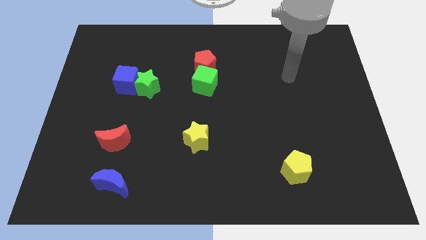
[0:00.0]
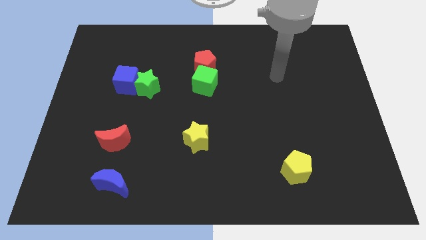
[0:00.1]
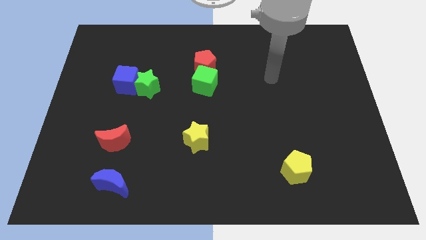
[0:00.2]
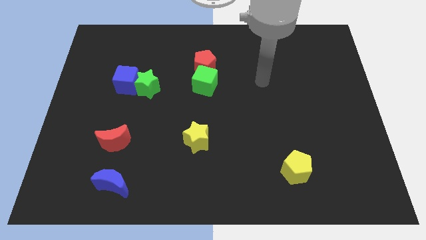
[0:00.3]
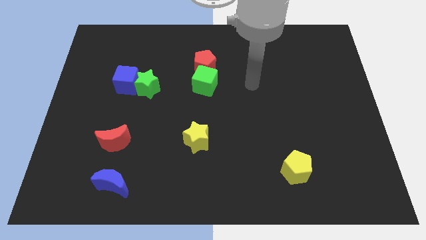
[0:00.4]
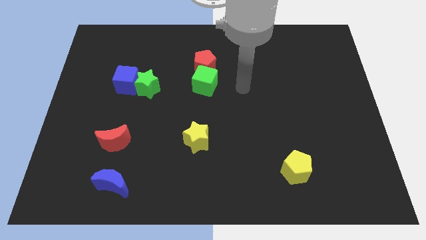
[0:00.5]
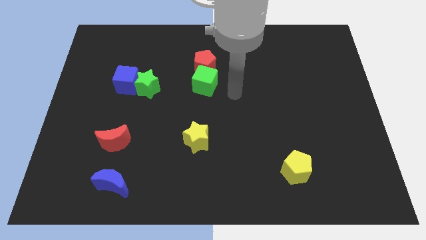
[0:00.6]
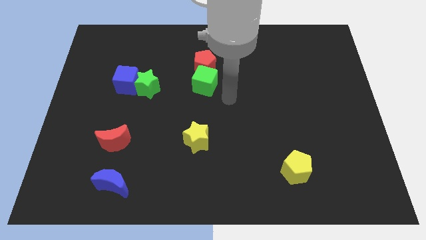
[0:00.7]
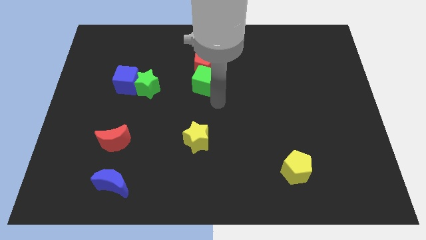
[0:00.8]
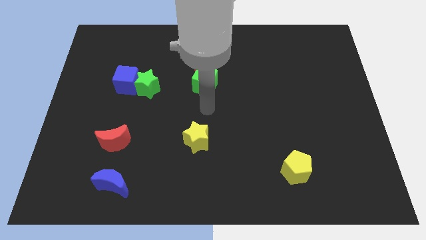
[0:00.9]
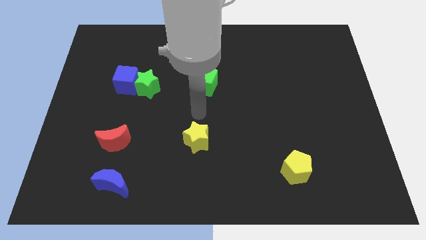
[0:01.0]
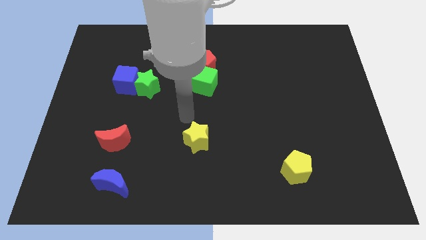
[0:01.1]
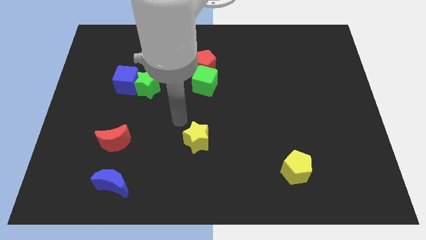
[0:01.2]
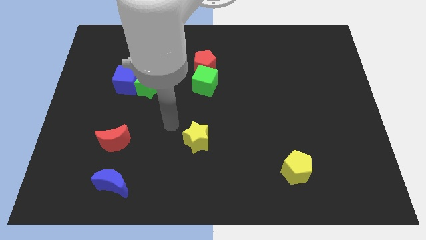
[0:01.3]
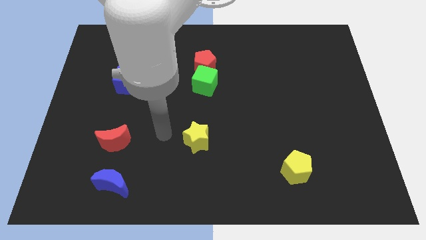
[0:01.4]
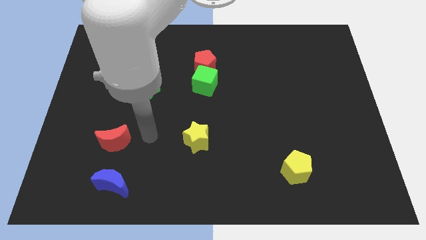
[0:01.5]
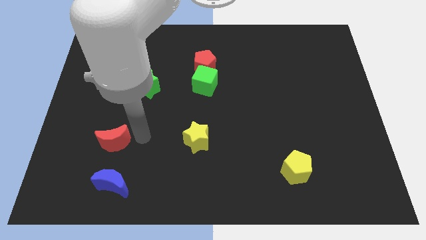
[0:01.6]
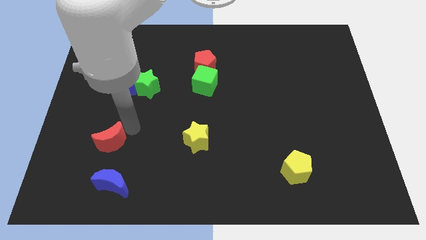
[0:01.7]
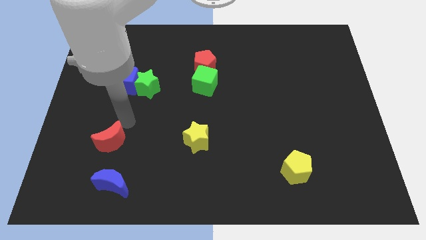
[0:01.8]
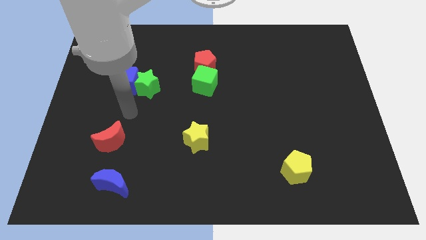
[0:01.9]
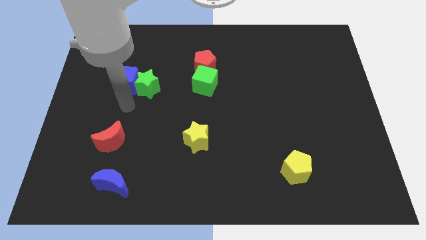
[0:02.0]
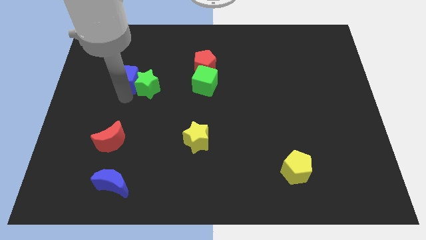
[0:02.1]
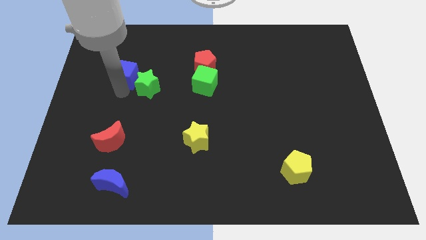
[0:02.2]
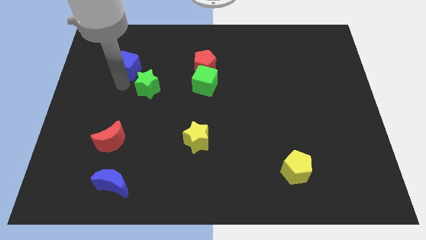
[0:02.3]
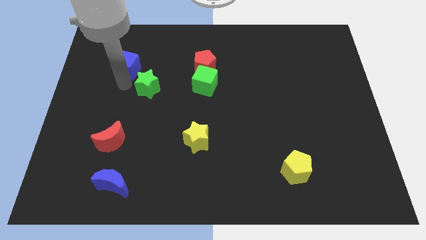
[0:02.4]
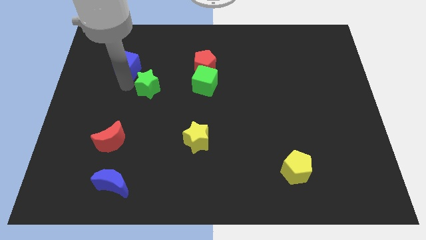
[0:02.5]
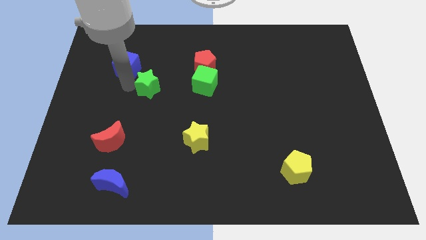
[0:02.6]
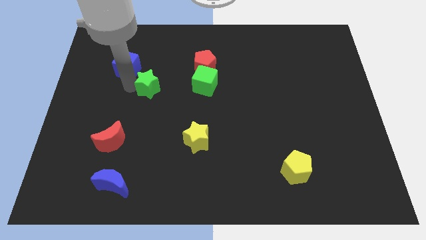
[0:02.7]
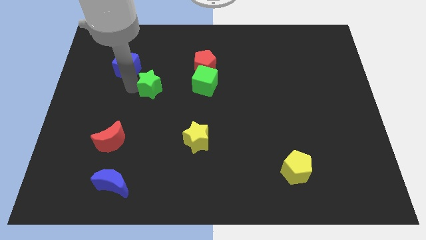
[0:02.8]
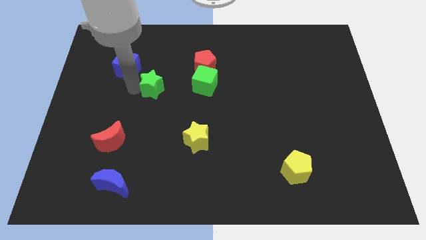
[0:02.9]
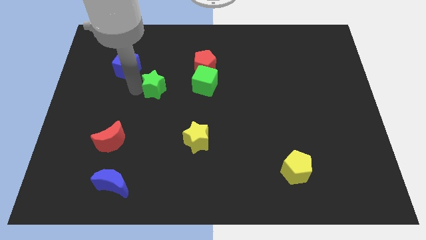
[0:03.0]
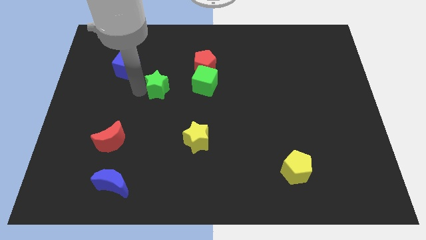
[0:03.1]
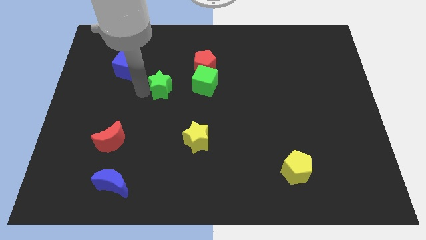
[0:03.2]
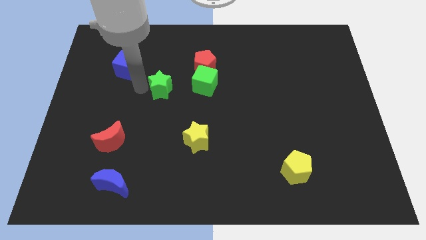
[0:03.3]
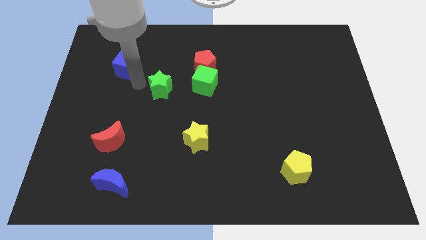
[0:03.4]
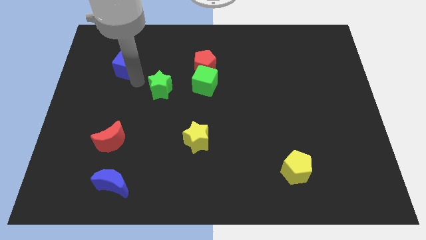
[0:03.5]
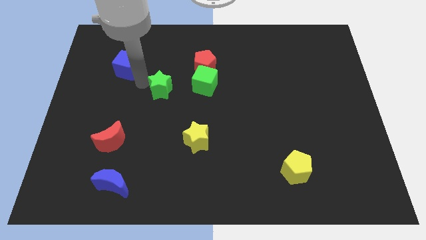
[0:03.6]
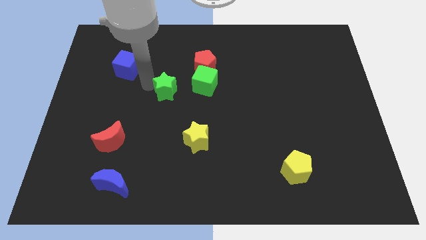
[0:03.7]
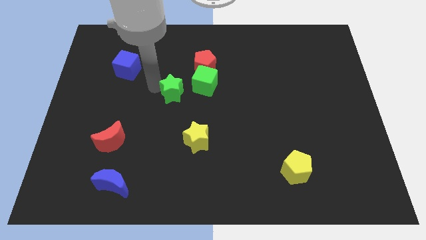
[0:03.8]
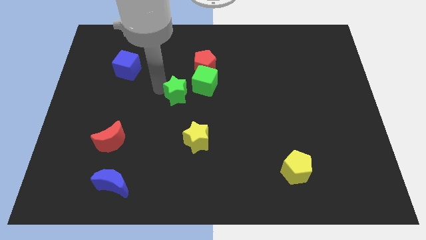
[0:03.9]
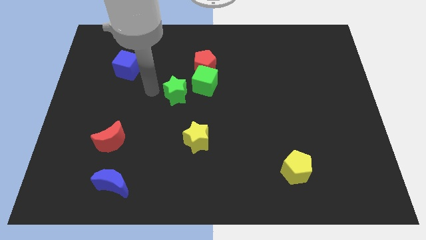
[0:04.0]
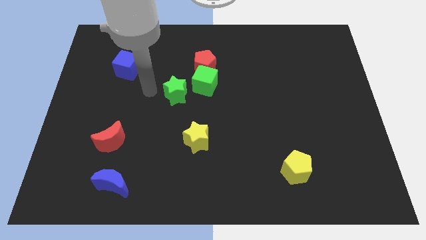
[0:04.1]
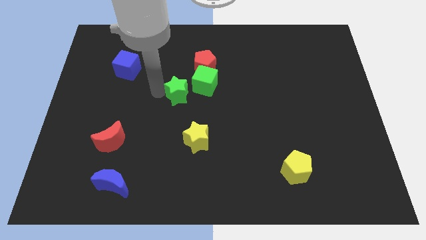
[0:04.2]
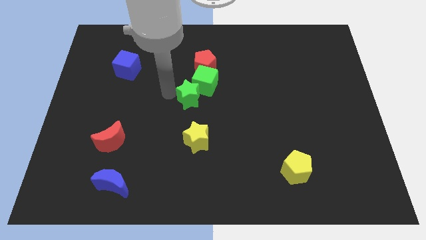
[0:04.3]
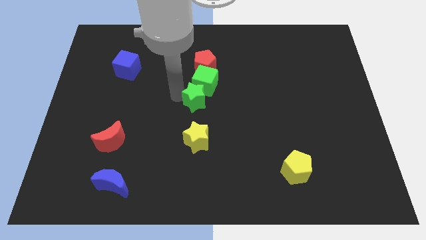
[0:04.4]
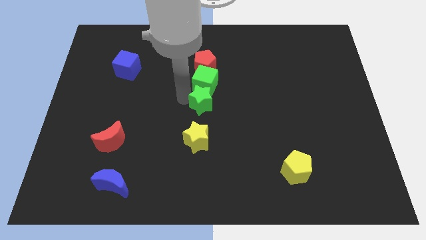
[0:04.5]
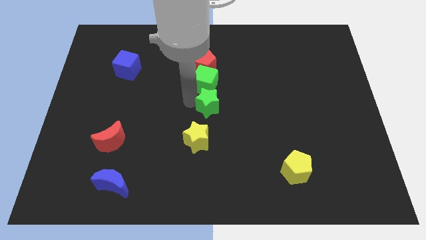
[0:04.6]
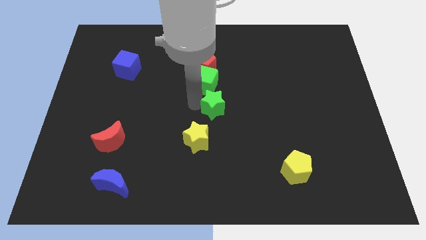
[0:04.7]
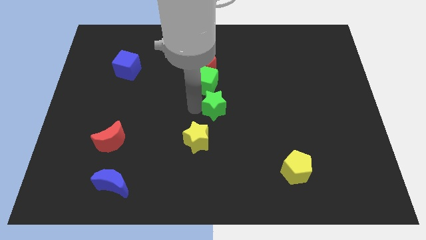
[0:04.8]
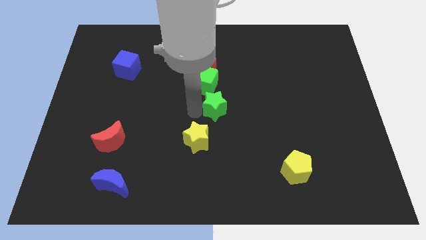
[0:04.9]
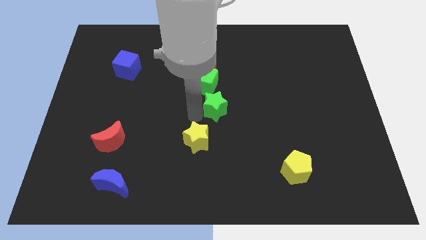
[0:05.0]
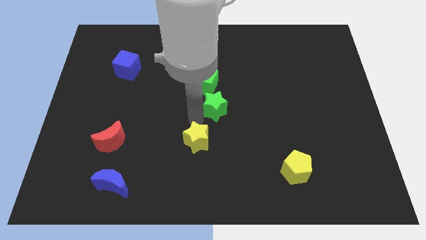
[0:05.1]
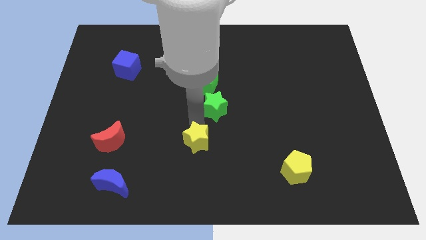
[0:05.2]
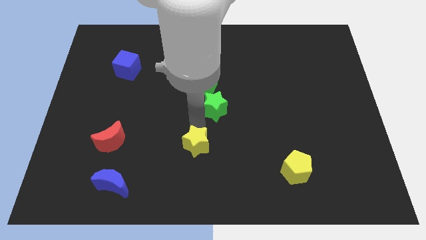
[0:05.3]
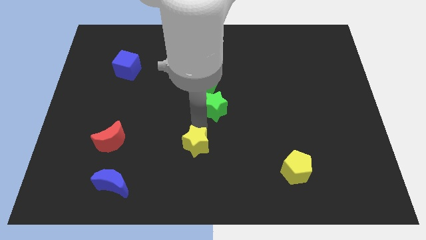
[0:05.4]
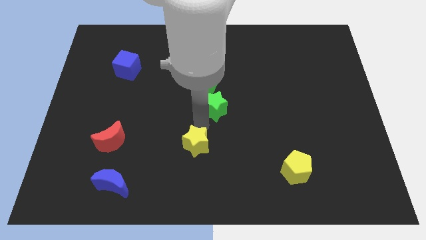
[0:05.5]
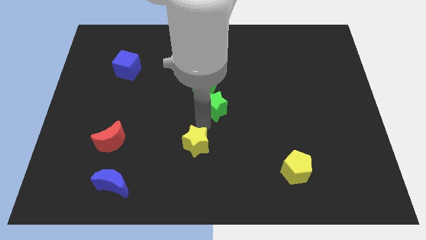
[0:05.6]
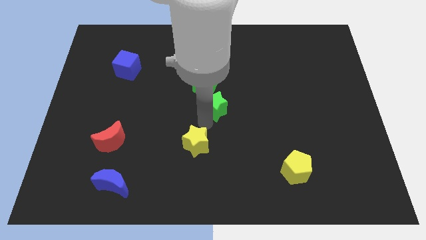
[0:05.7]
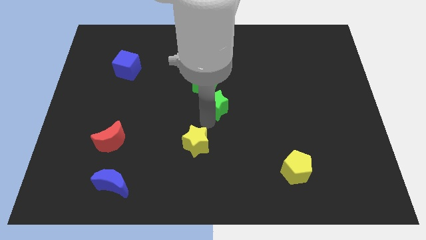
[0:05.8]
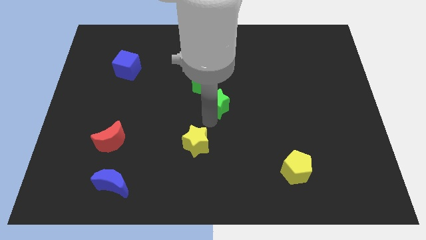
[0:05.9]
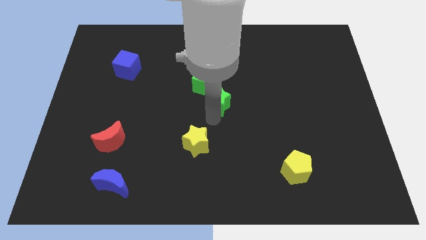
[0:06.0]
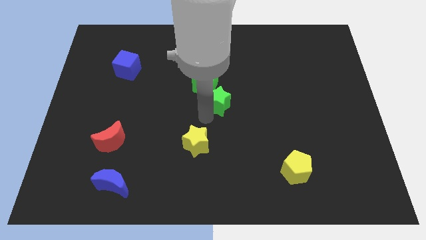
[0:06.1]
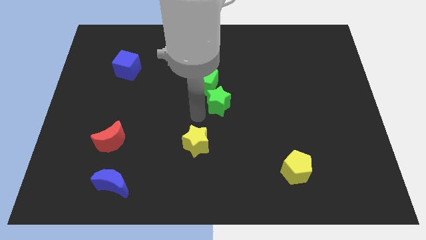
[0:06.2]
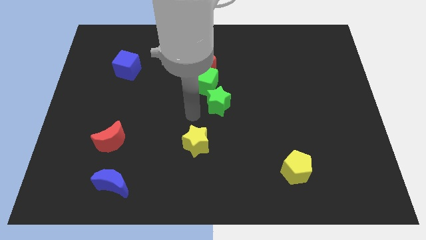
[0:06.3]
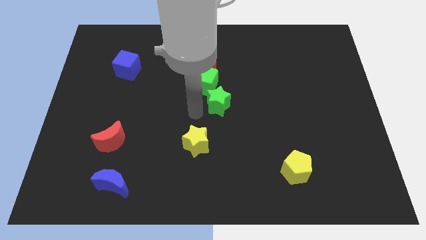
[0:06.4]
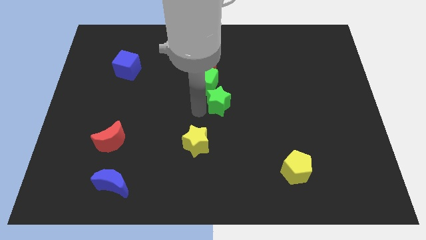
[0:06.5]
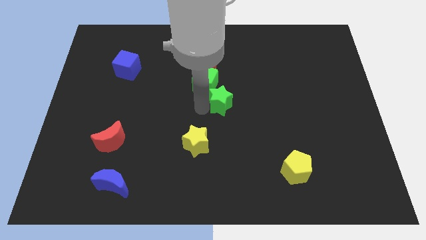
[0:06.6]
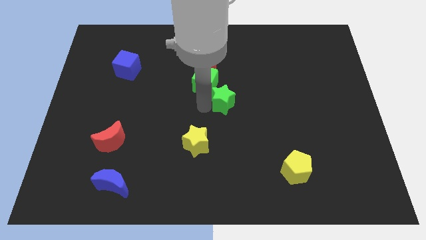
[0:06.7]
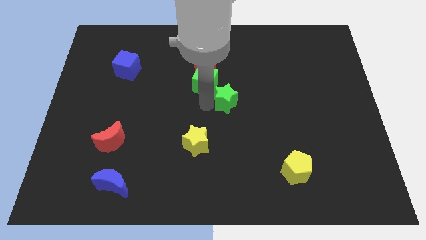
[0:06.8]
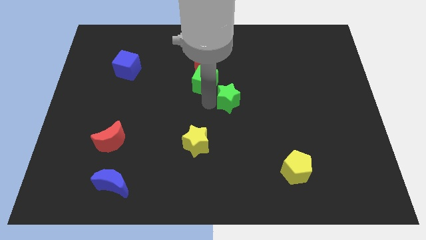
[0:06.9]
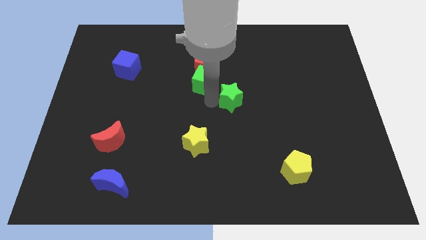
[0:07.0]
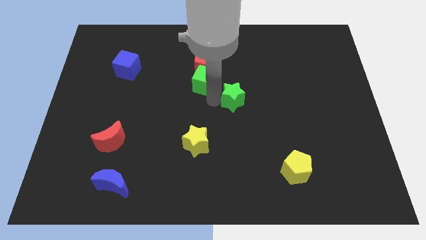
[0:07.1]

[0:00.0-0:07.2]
move the green star right

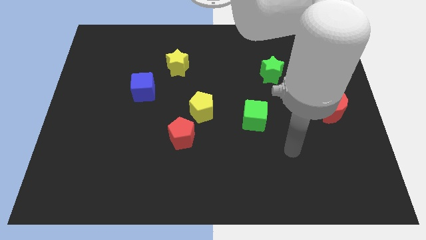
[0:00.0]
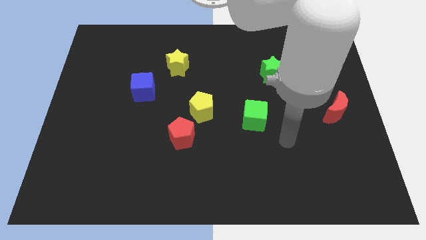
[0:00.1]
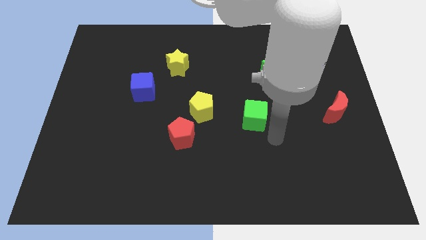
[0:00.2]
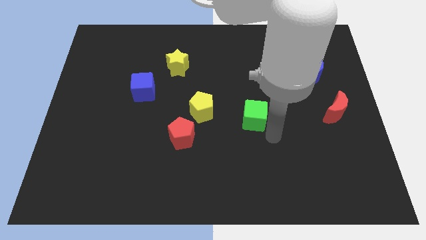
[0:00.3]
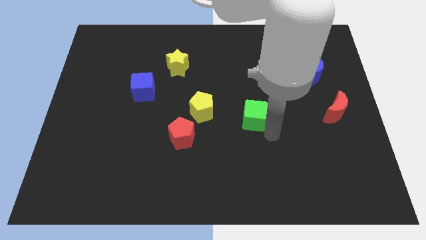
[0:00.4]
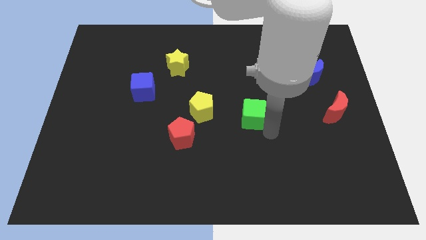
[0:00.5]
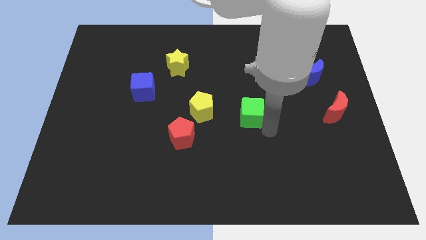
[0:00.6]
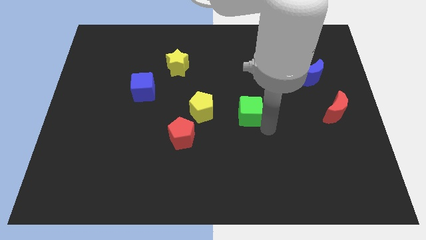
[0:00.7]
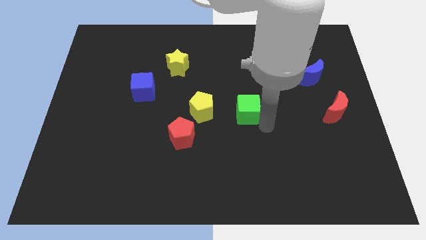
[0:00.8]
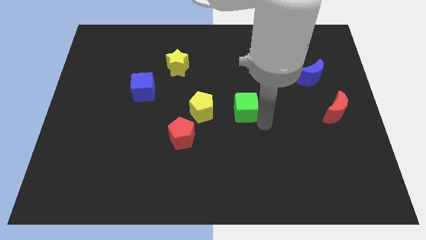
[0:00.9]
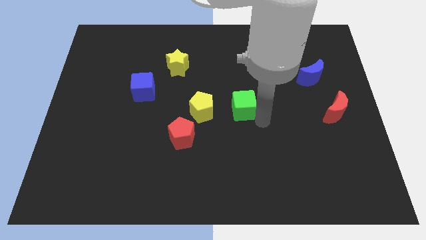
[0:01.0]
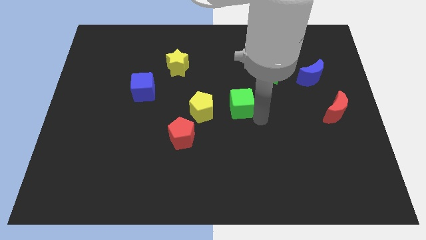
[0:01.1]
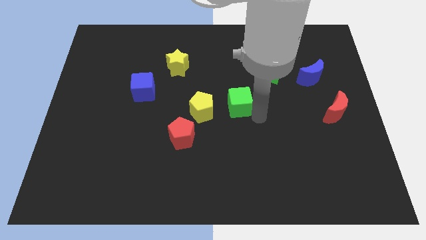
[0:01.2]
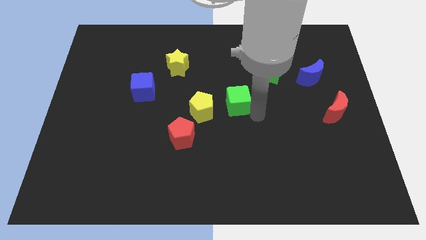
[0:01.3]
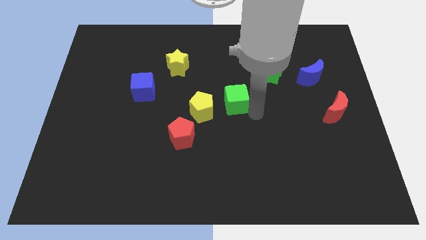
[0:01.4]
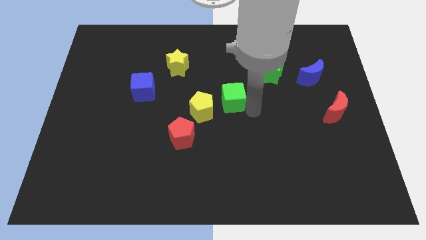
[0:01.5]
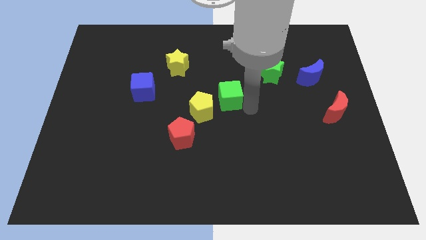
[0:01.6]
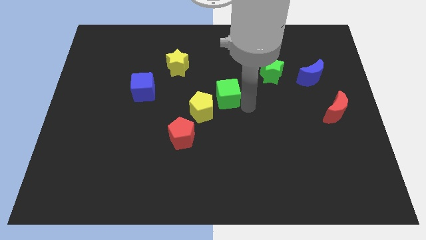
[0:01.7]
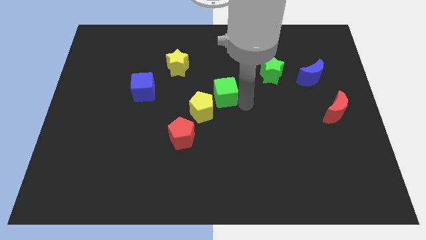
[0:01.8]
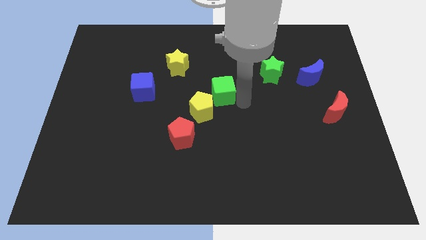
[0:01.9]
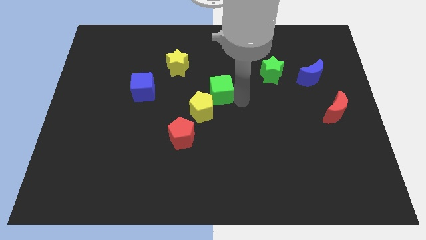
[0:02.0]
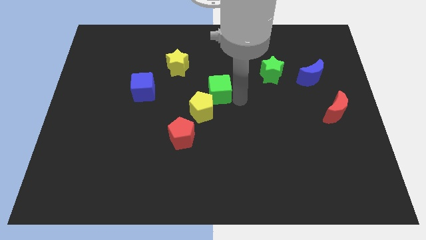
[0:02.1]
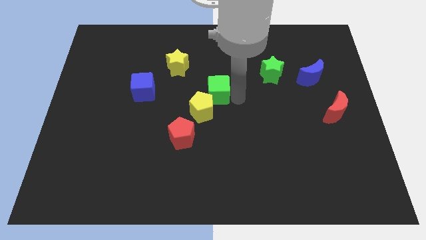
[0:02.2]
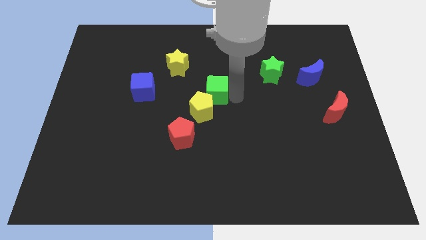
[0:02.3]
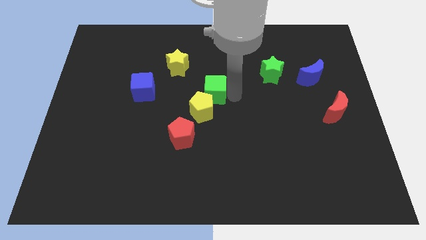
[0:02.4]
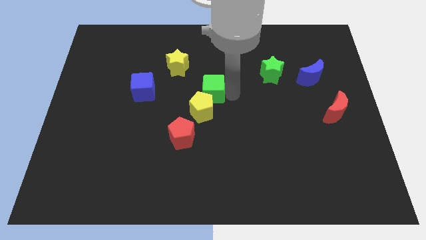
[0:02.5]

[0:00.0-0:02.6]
slide the green cube left somewhat
